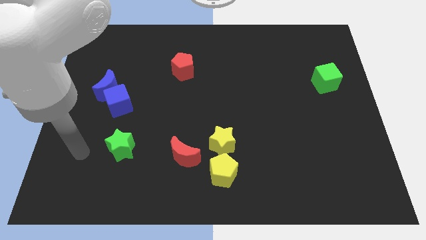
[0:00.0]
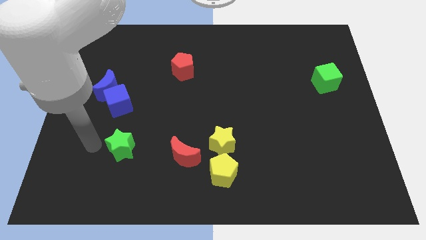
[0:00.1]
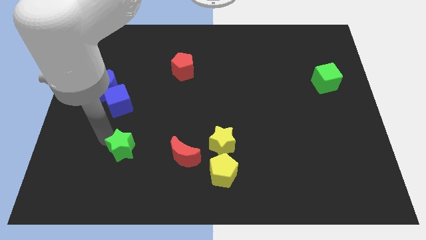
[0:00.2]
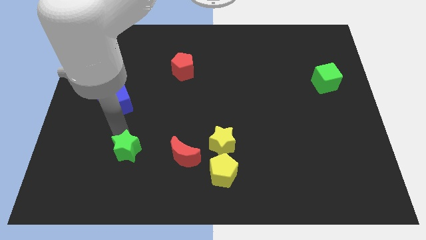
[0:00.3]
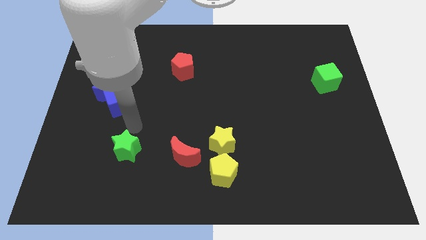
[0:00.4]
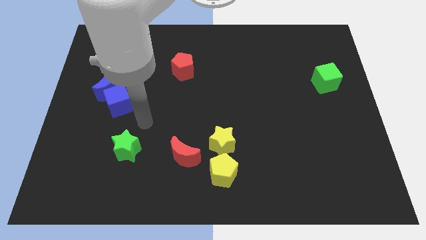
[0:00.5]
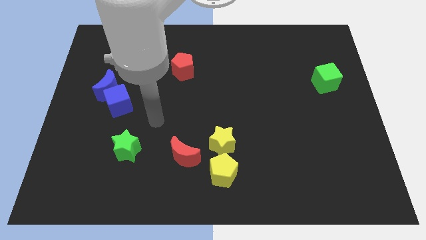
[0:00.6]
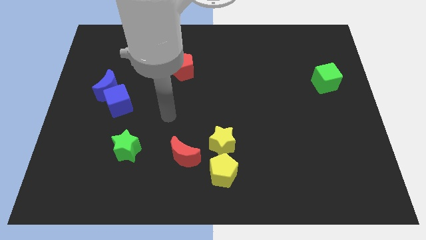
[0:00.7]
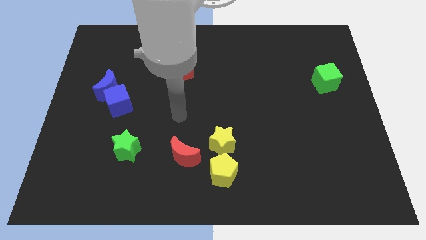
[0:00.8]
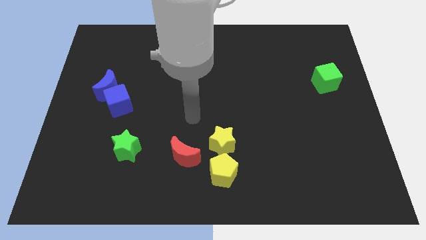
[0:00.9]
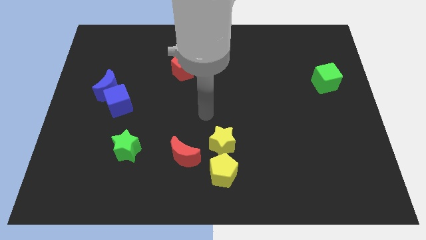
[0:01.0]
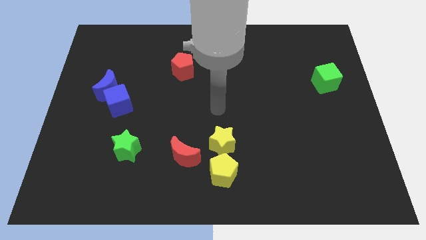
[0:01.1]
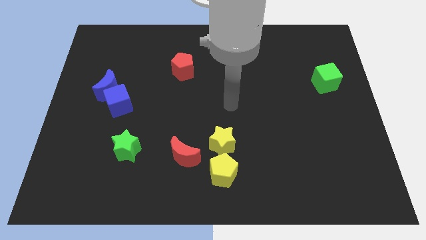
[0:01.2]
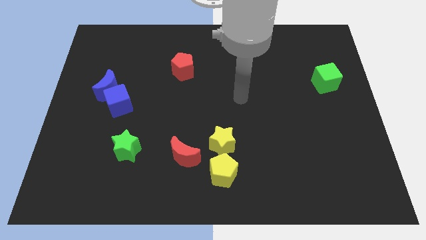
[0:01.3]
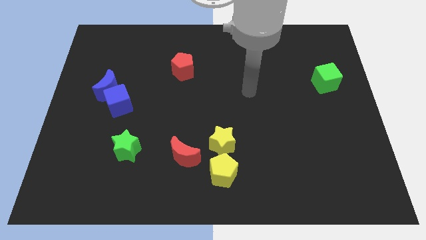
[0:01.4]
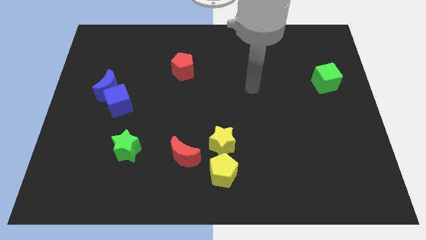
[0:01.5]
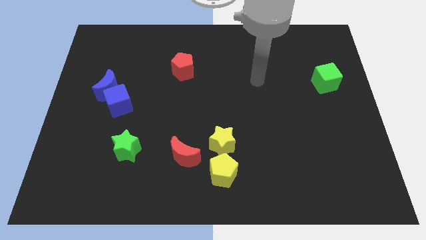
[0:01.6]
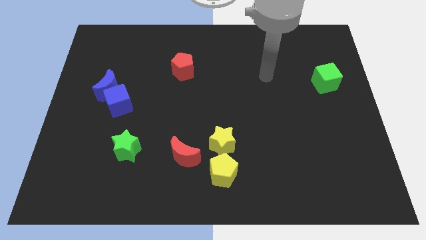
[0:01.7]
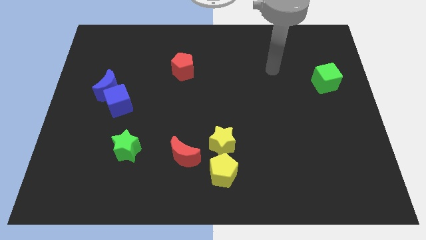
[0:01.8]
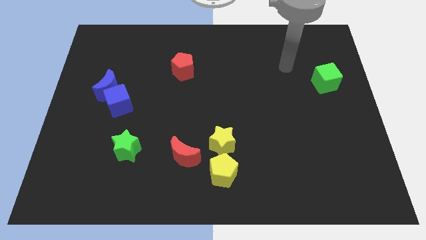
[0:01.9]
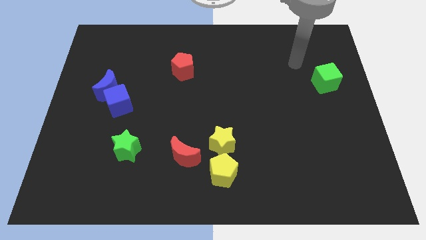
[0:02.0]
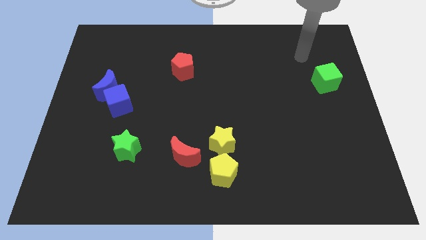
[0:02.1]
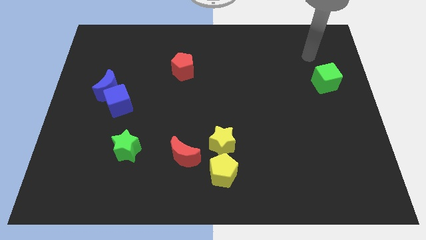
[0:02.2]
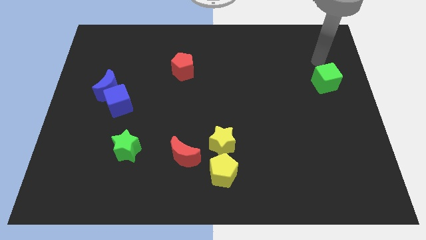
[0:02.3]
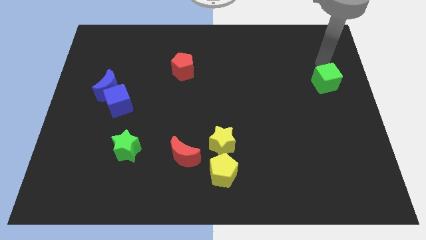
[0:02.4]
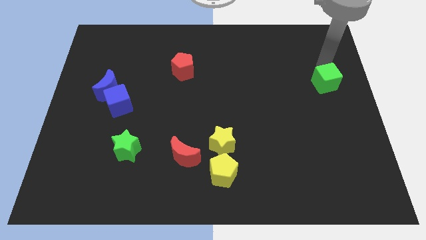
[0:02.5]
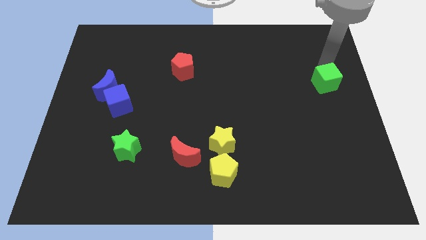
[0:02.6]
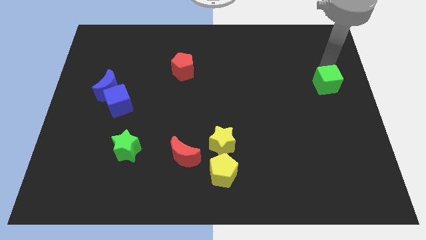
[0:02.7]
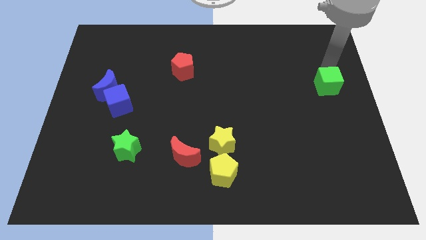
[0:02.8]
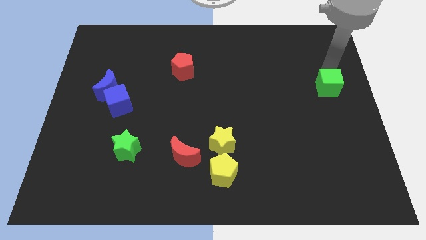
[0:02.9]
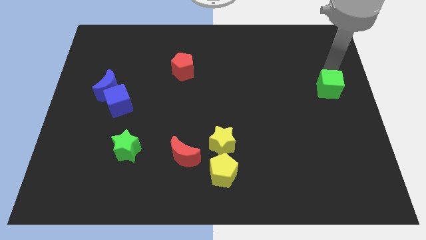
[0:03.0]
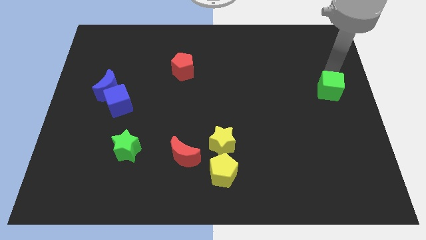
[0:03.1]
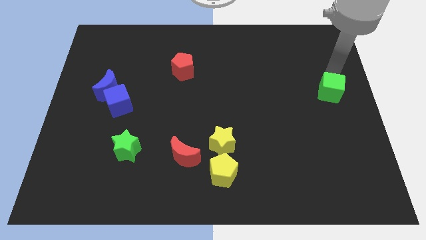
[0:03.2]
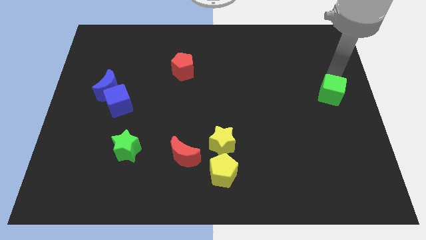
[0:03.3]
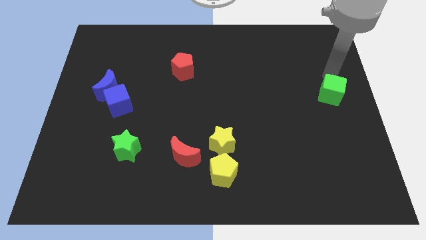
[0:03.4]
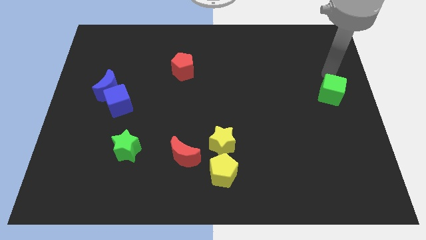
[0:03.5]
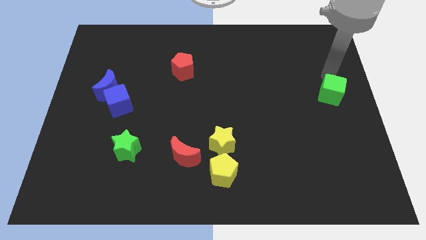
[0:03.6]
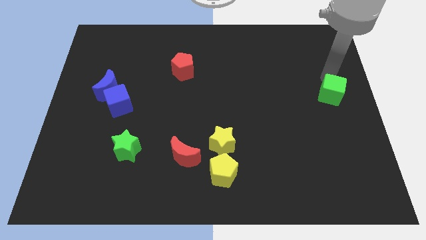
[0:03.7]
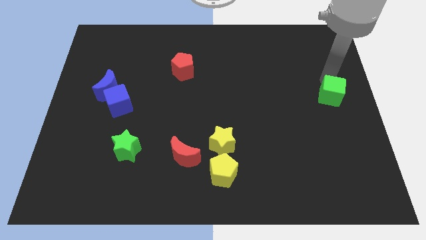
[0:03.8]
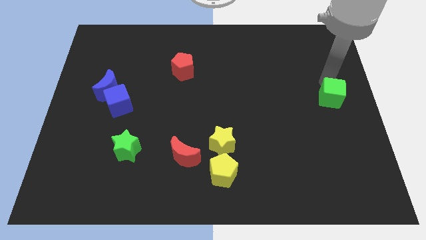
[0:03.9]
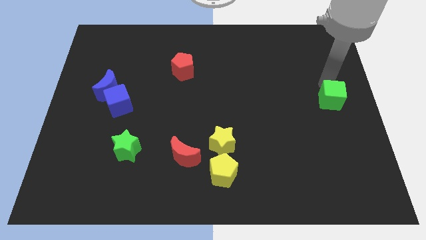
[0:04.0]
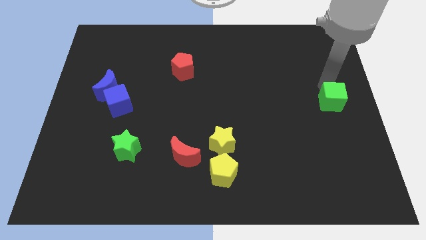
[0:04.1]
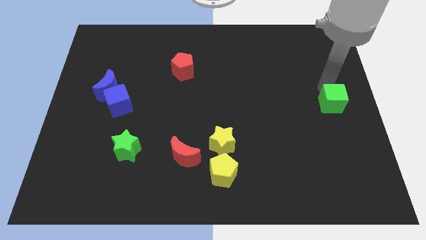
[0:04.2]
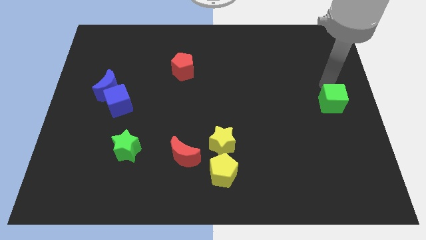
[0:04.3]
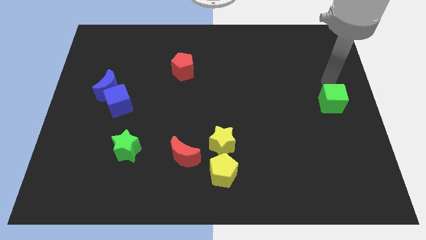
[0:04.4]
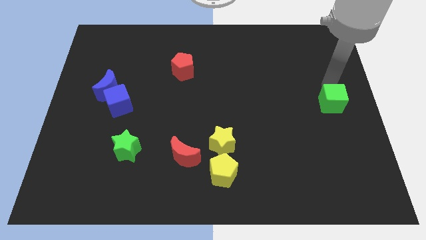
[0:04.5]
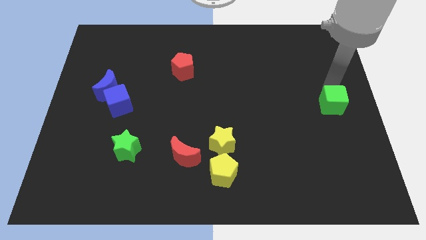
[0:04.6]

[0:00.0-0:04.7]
slightly move the green cube downwards

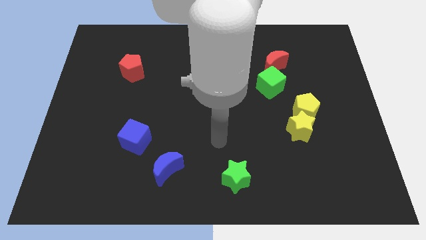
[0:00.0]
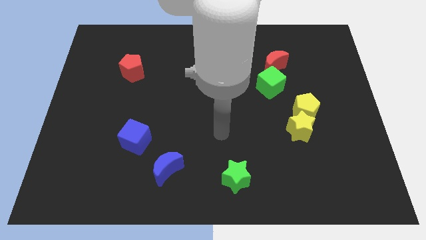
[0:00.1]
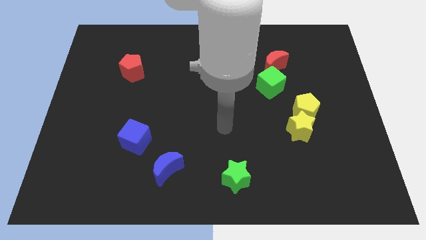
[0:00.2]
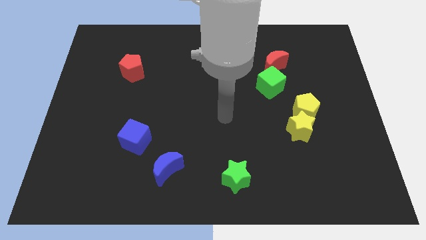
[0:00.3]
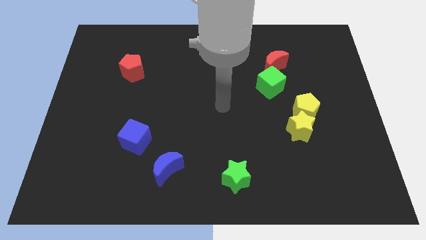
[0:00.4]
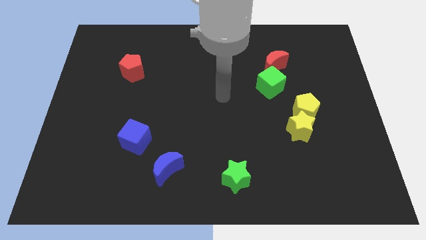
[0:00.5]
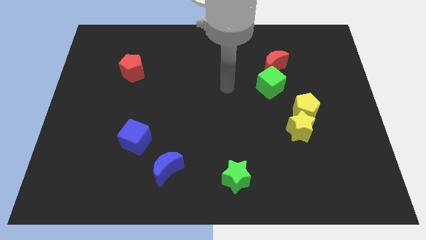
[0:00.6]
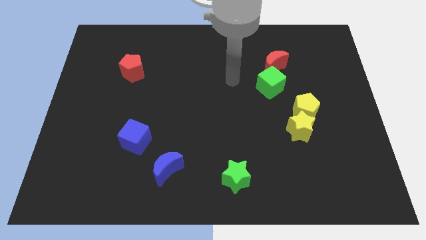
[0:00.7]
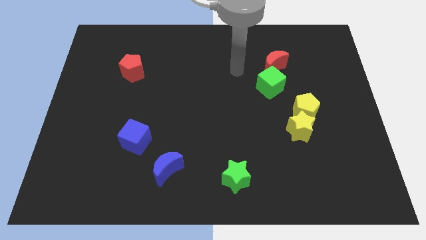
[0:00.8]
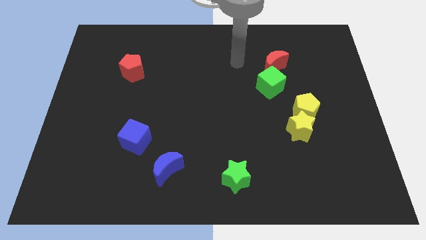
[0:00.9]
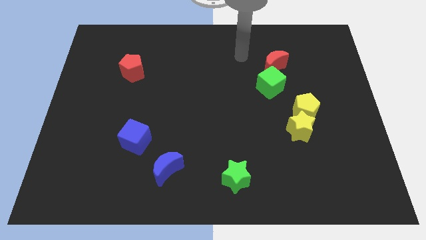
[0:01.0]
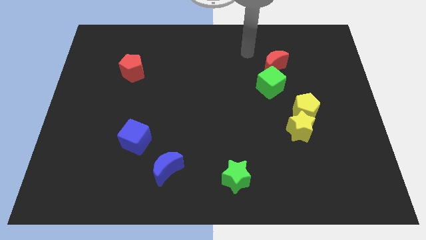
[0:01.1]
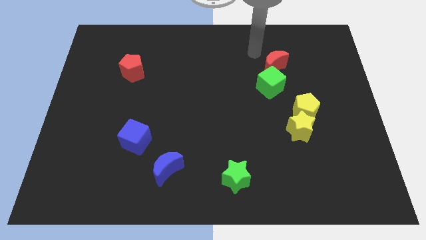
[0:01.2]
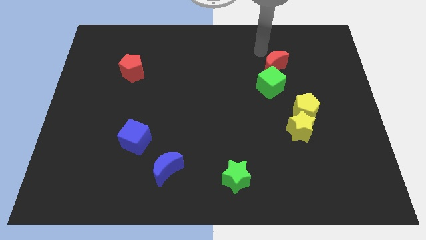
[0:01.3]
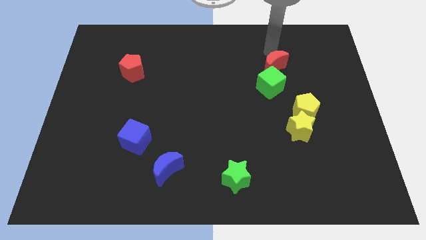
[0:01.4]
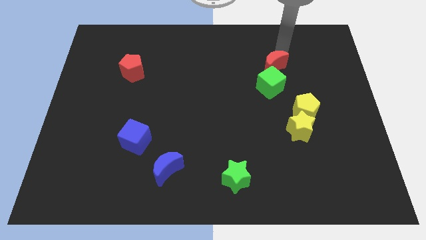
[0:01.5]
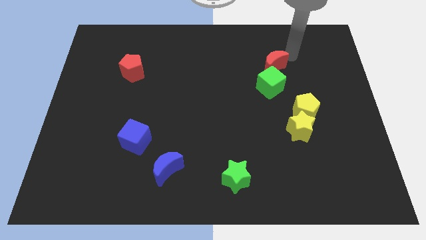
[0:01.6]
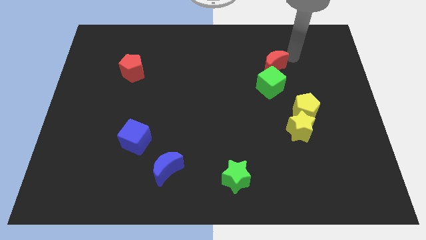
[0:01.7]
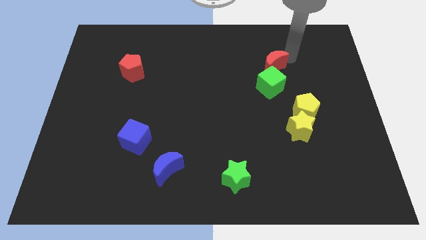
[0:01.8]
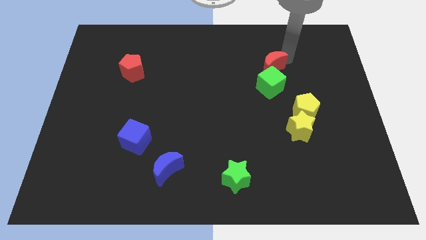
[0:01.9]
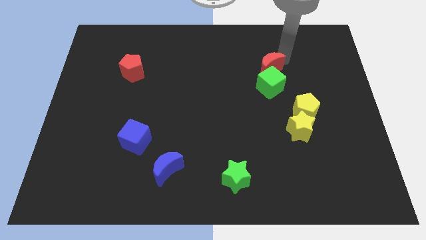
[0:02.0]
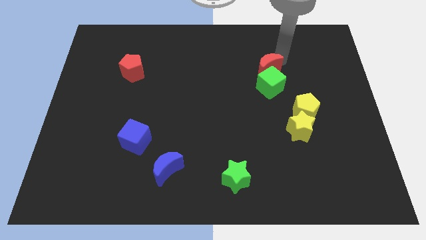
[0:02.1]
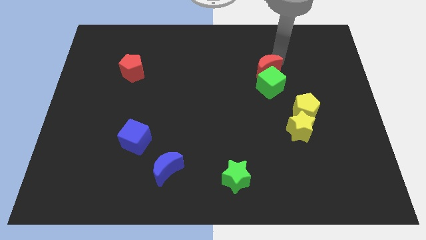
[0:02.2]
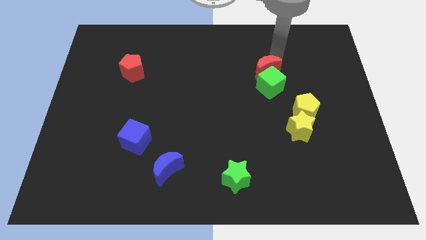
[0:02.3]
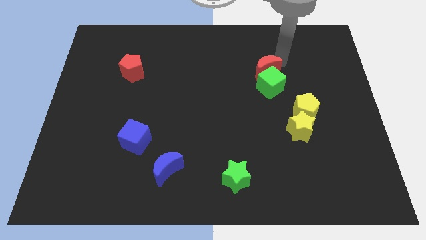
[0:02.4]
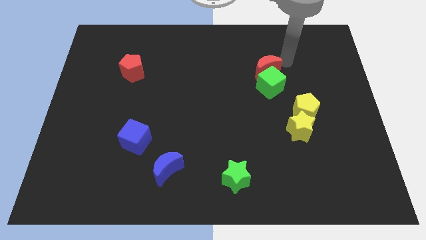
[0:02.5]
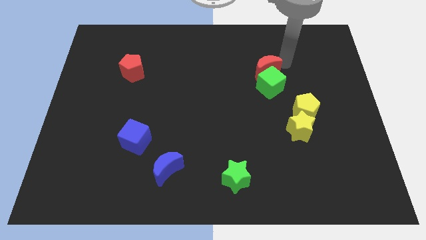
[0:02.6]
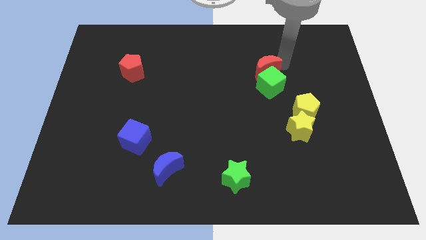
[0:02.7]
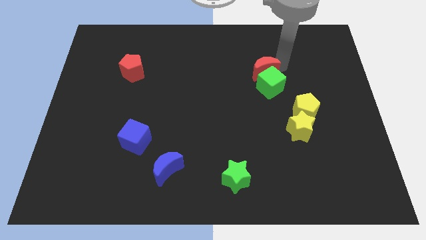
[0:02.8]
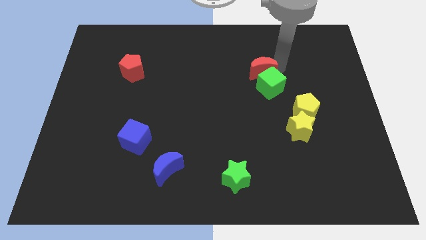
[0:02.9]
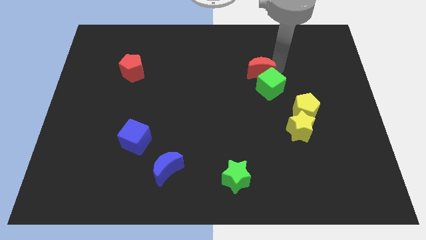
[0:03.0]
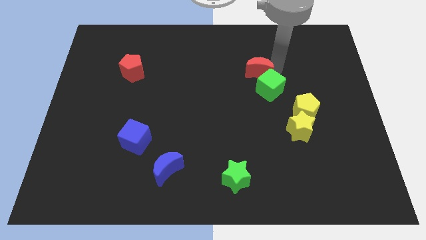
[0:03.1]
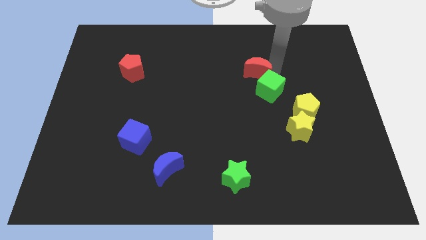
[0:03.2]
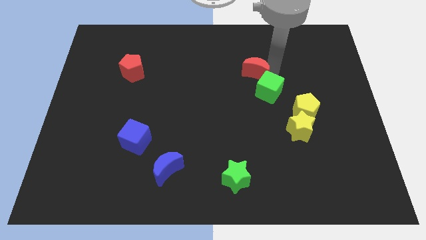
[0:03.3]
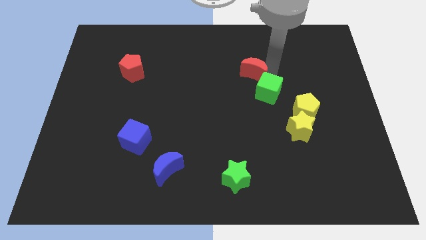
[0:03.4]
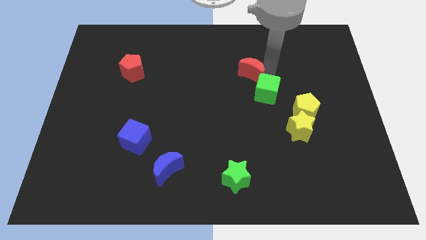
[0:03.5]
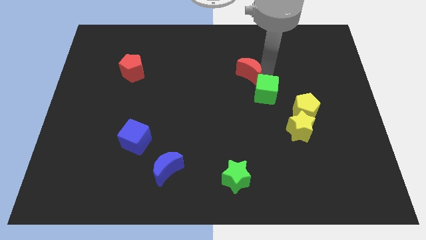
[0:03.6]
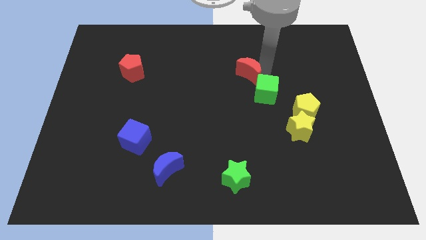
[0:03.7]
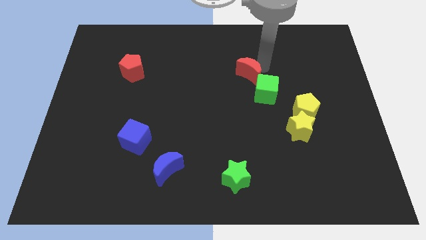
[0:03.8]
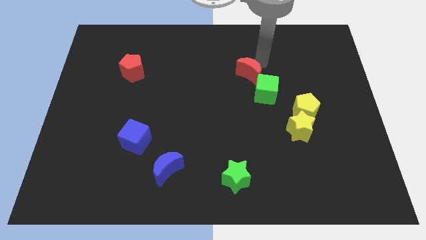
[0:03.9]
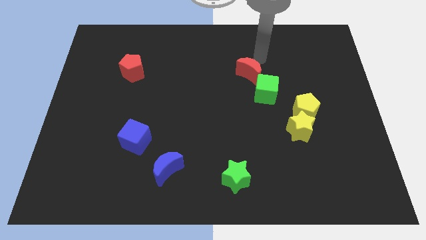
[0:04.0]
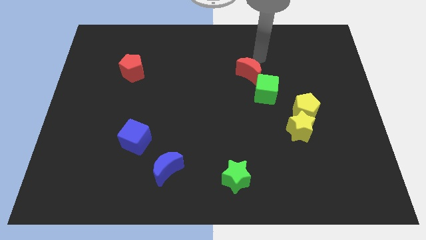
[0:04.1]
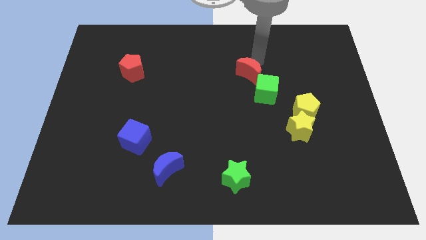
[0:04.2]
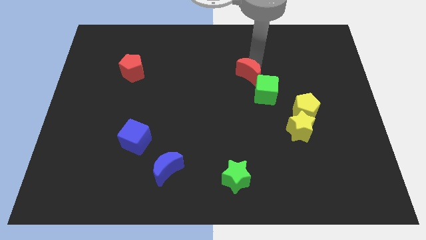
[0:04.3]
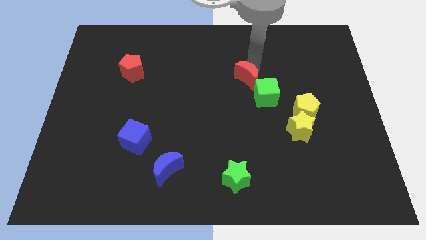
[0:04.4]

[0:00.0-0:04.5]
move the red moon a bit down and to the left diagonally
